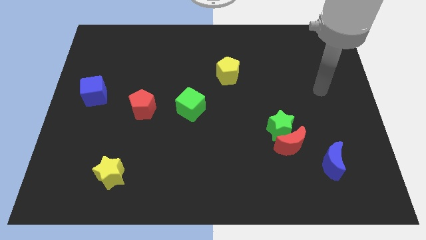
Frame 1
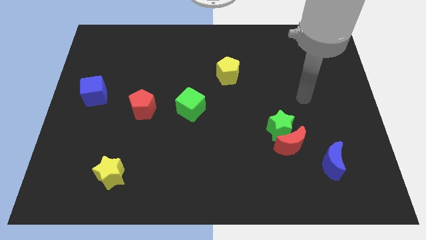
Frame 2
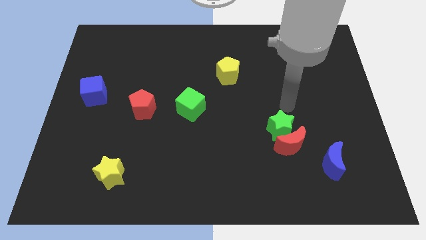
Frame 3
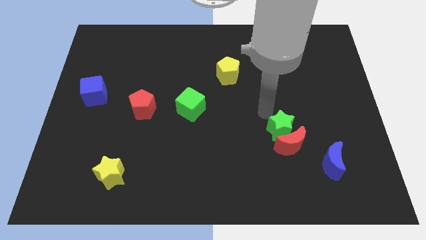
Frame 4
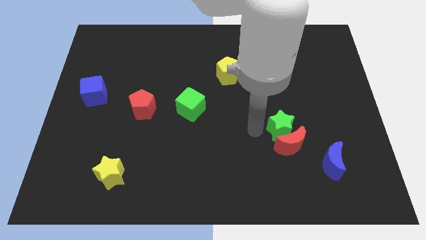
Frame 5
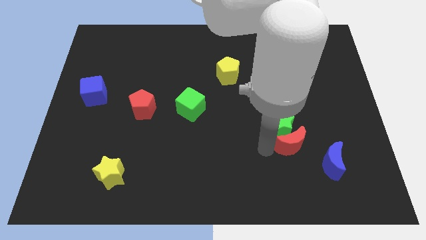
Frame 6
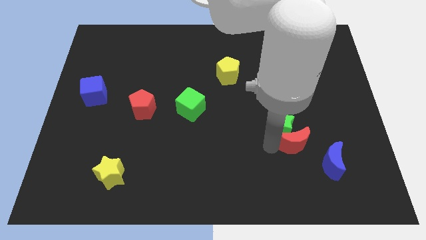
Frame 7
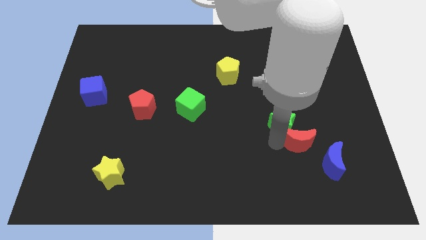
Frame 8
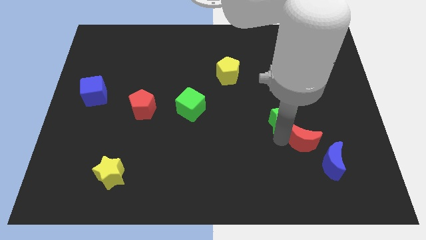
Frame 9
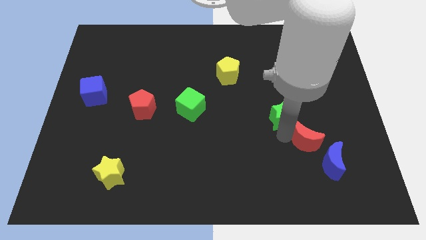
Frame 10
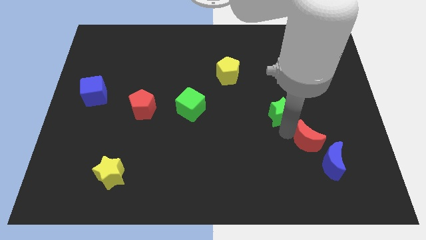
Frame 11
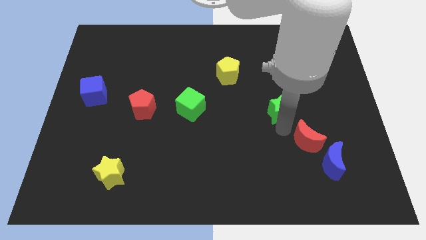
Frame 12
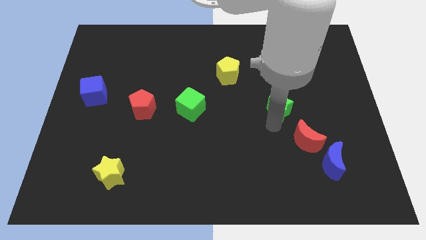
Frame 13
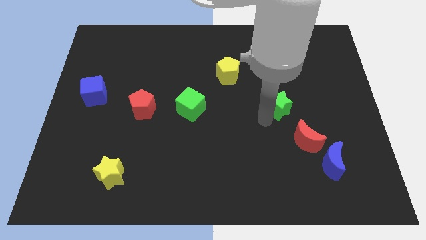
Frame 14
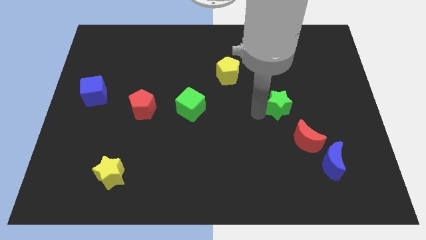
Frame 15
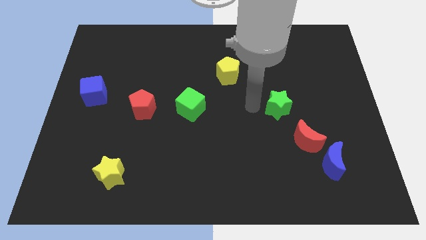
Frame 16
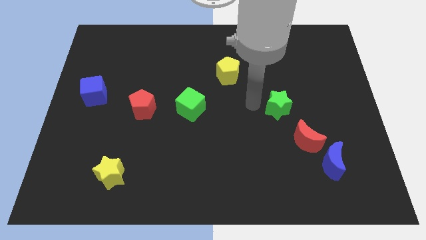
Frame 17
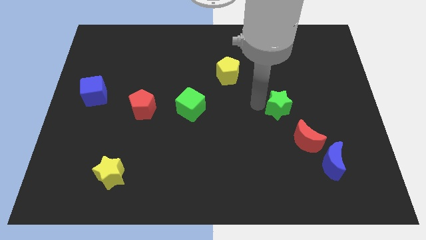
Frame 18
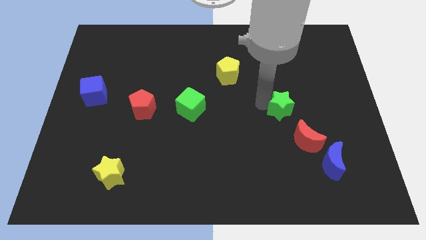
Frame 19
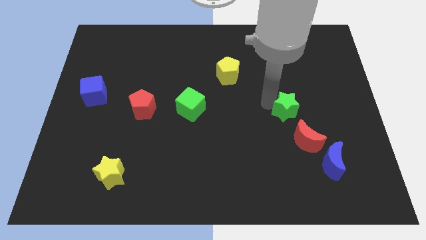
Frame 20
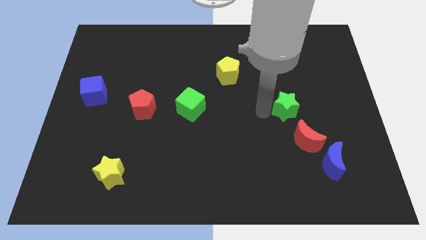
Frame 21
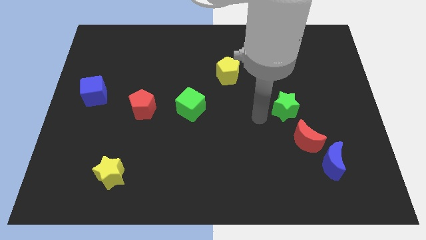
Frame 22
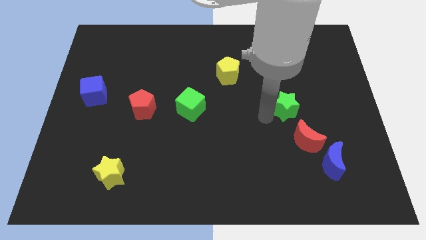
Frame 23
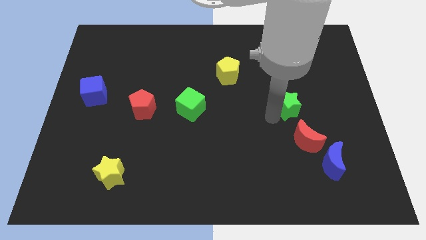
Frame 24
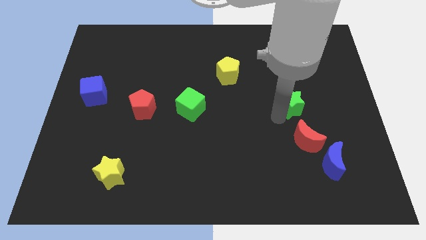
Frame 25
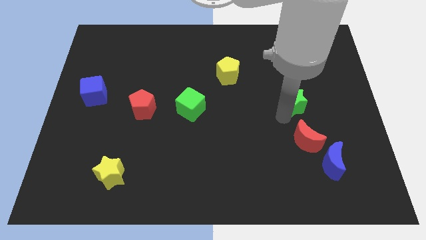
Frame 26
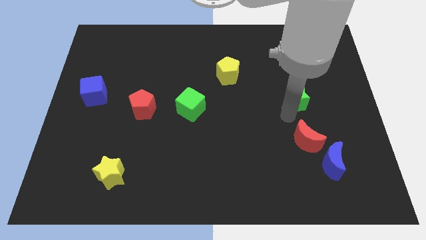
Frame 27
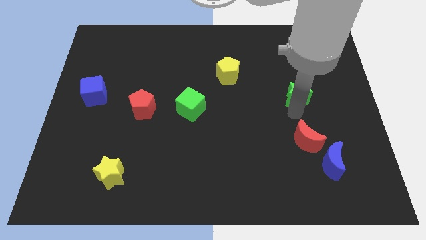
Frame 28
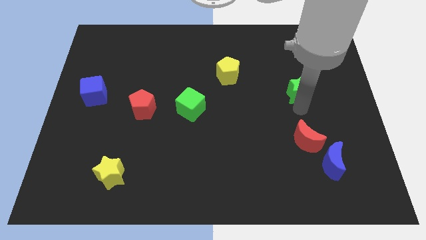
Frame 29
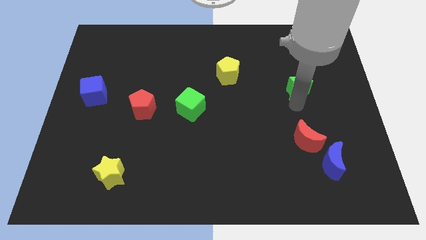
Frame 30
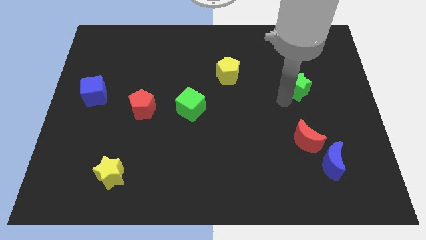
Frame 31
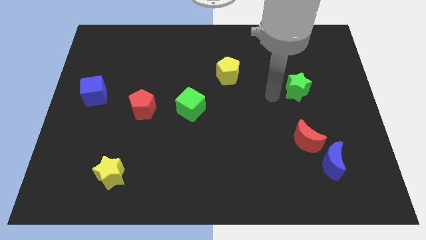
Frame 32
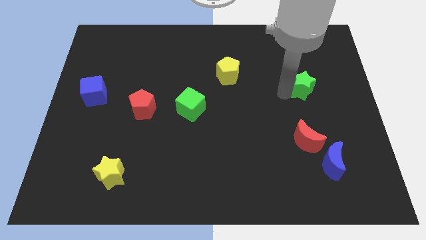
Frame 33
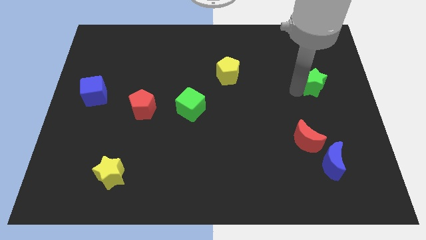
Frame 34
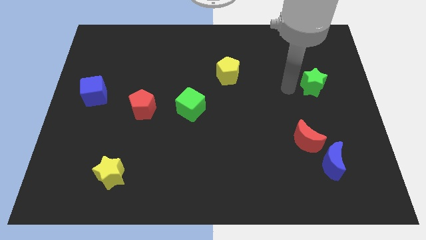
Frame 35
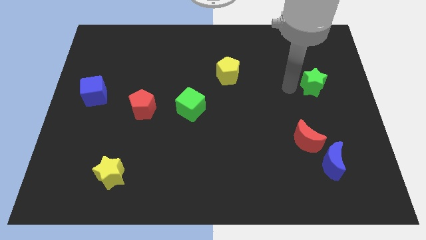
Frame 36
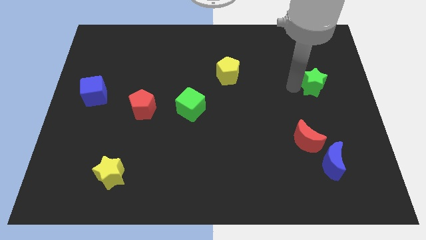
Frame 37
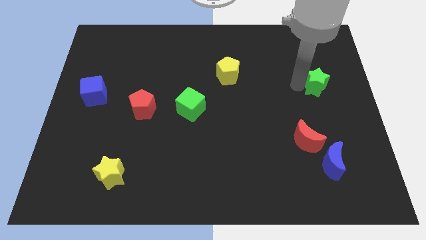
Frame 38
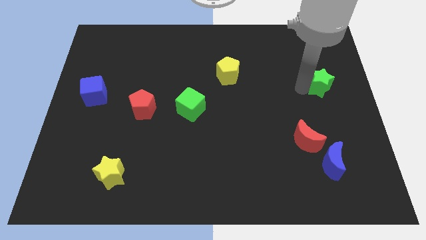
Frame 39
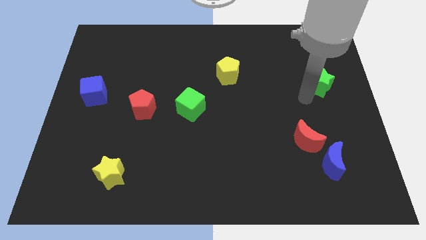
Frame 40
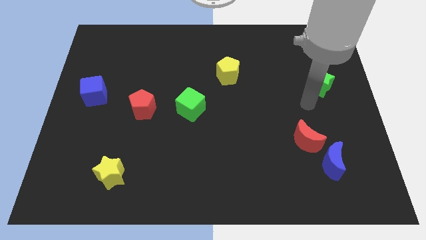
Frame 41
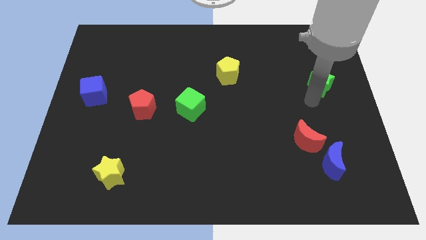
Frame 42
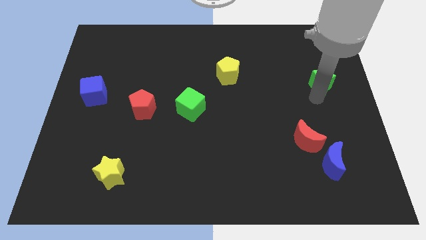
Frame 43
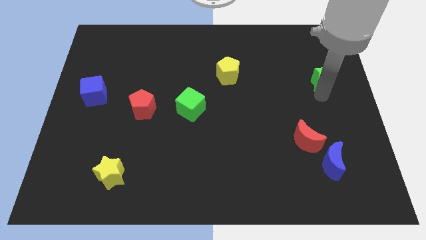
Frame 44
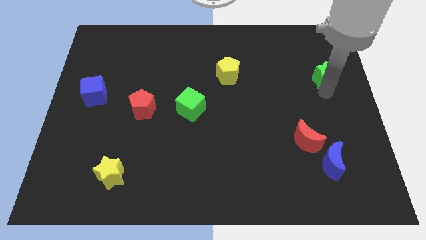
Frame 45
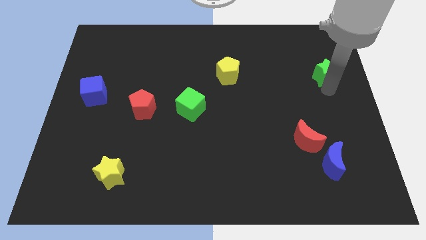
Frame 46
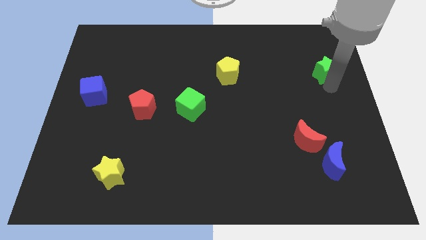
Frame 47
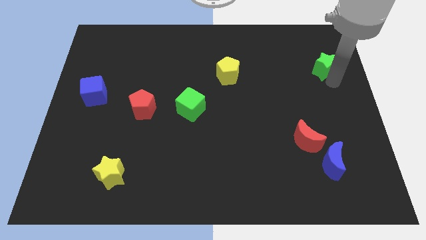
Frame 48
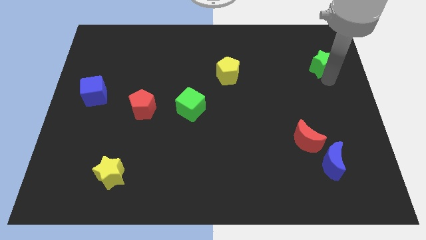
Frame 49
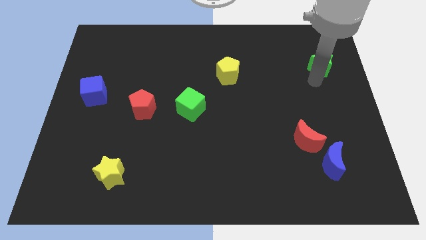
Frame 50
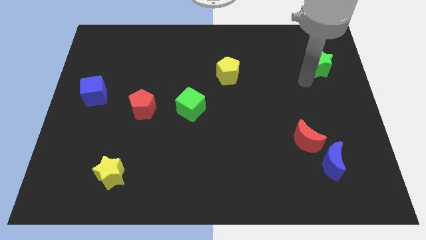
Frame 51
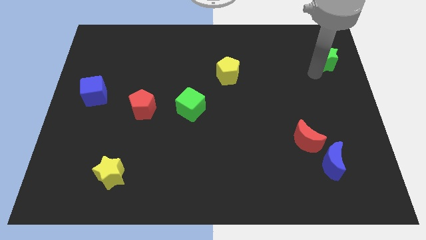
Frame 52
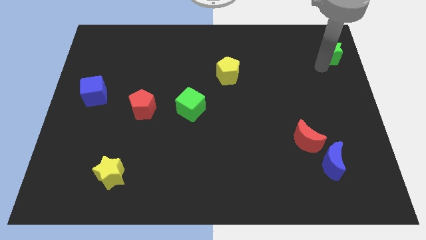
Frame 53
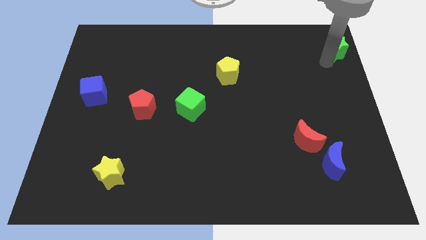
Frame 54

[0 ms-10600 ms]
move the green star to the top right of the board

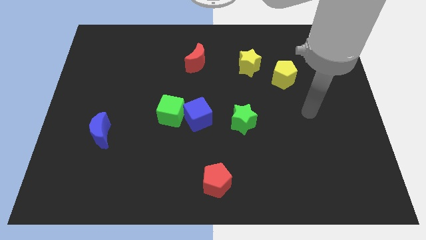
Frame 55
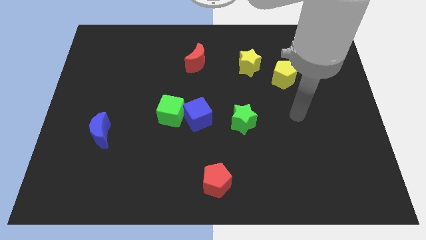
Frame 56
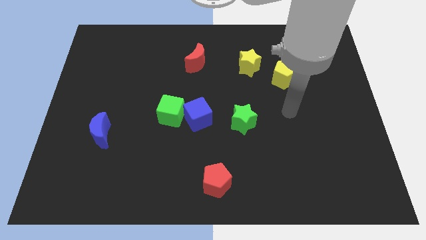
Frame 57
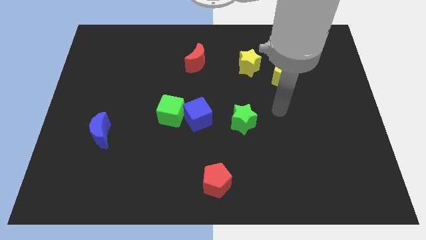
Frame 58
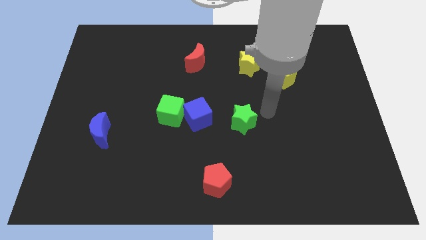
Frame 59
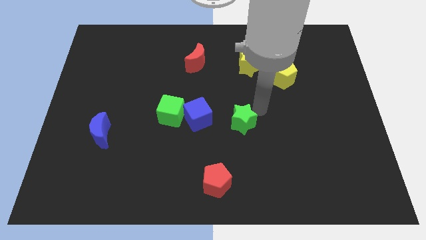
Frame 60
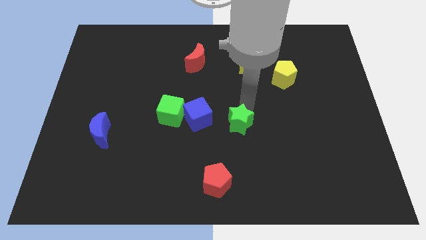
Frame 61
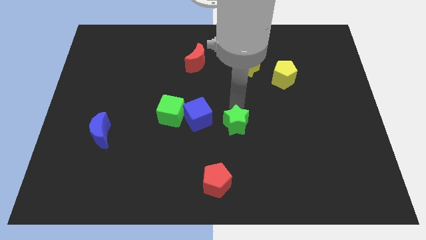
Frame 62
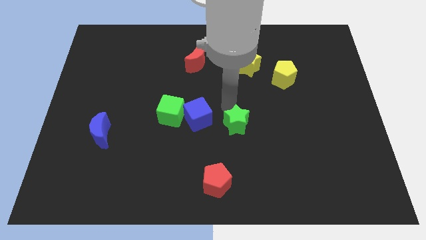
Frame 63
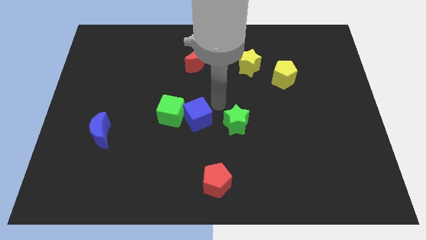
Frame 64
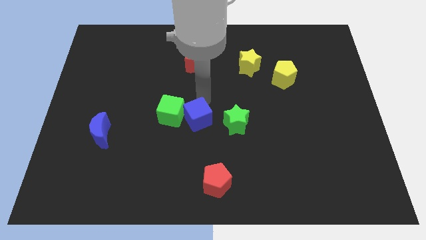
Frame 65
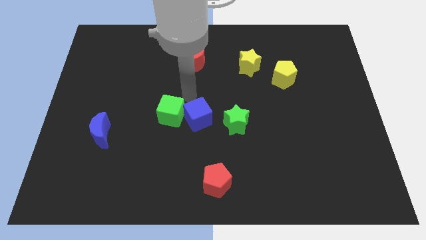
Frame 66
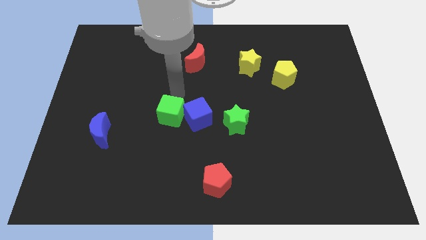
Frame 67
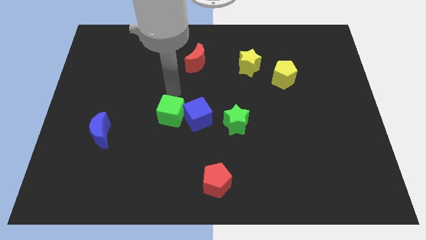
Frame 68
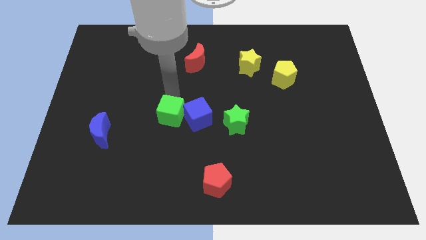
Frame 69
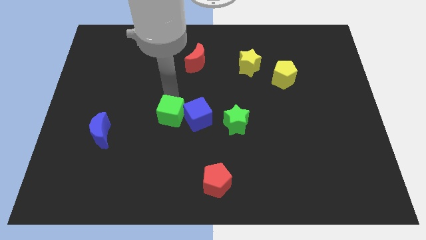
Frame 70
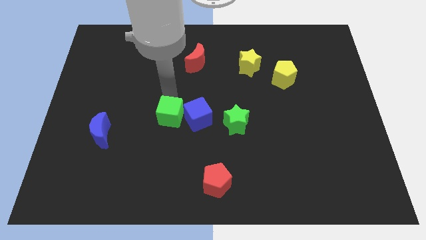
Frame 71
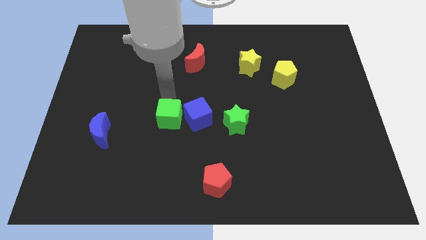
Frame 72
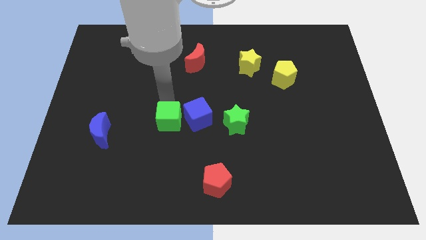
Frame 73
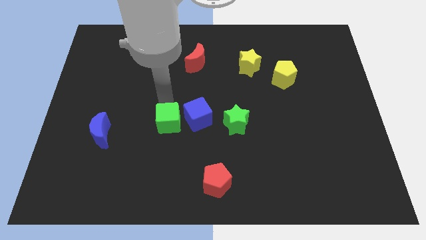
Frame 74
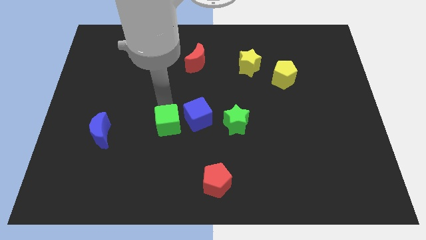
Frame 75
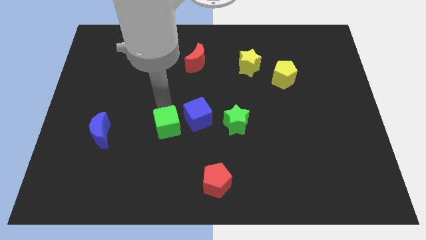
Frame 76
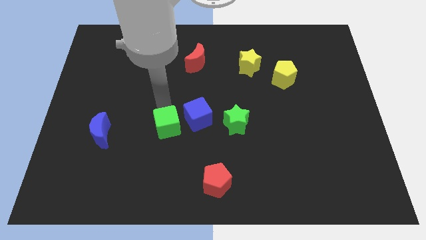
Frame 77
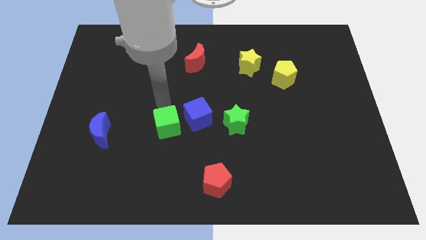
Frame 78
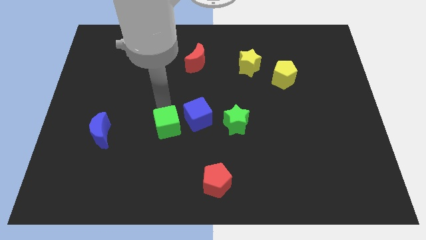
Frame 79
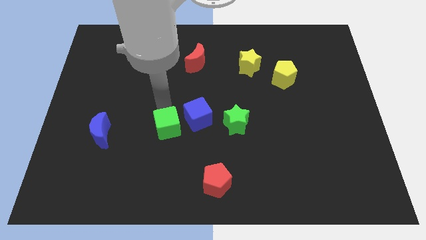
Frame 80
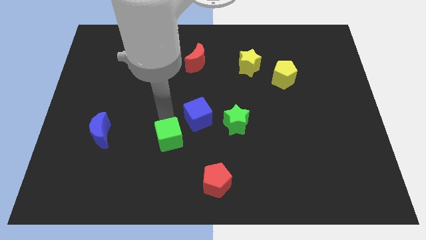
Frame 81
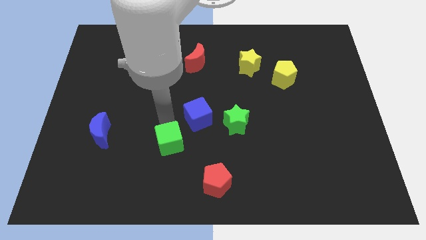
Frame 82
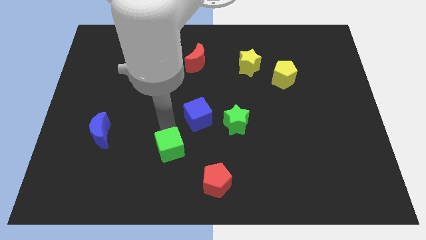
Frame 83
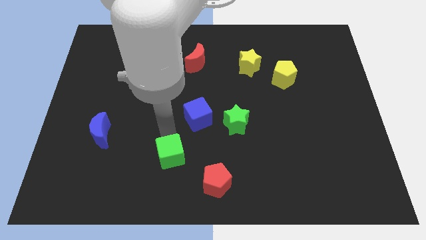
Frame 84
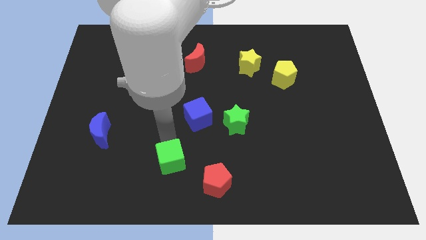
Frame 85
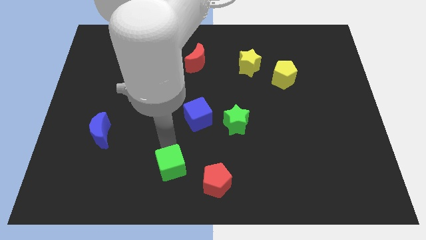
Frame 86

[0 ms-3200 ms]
move the green cube to the bottom
